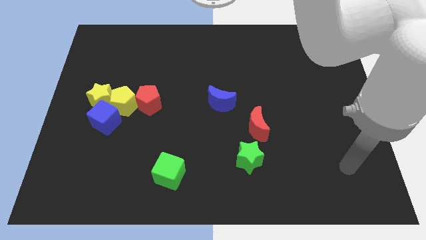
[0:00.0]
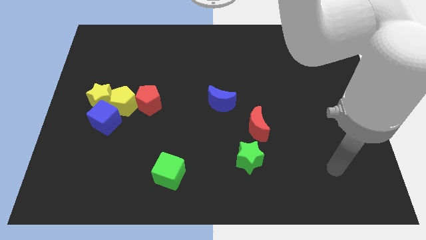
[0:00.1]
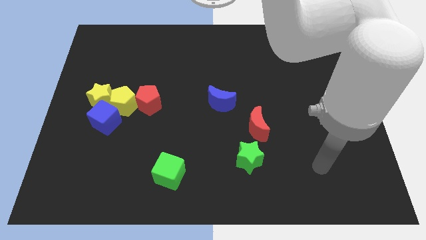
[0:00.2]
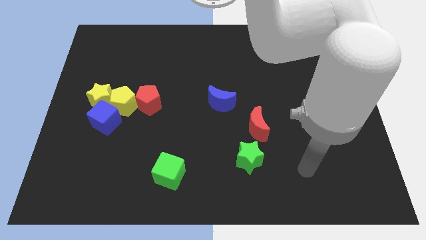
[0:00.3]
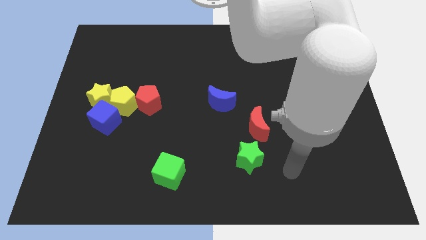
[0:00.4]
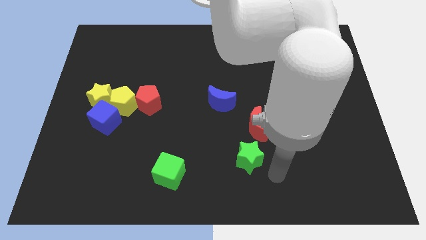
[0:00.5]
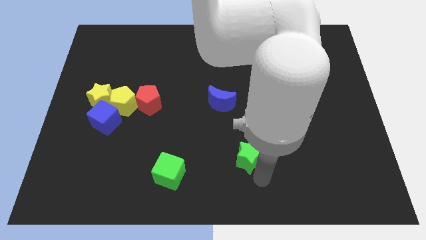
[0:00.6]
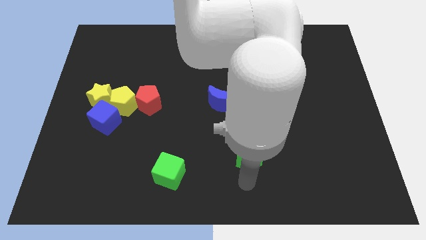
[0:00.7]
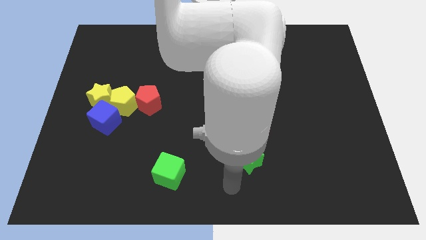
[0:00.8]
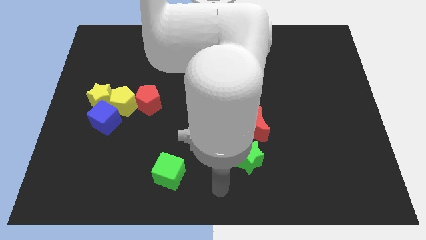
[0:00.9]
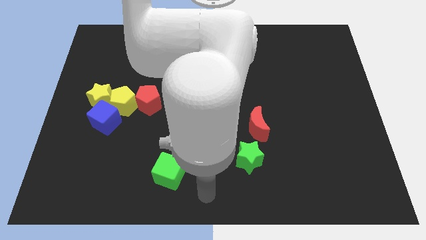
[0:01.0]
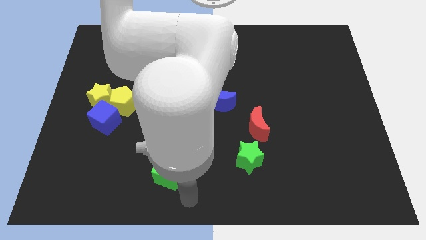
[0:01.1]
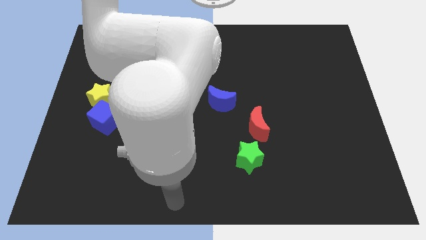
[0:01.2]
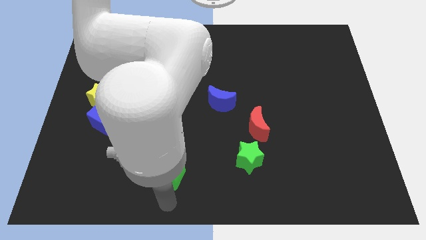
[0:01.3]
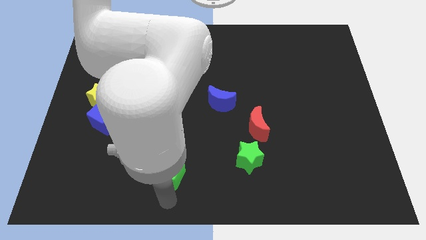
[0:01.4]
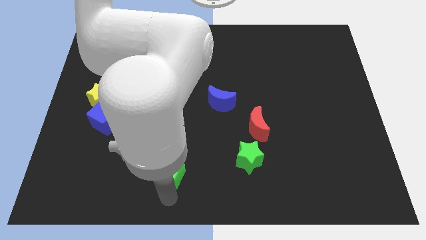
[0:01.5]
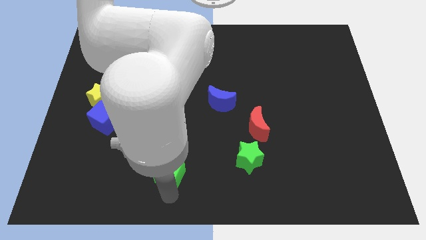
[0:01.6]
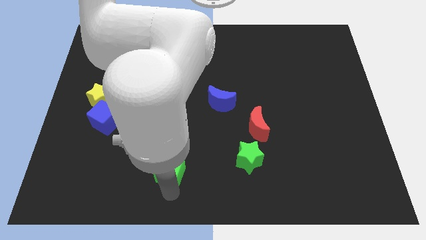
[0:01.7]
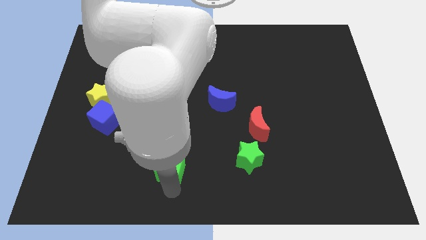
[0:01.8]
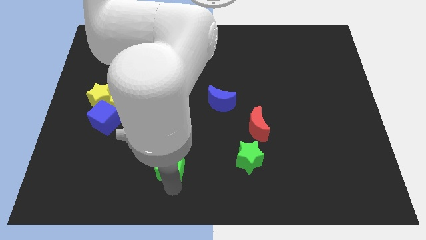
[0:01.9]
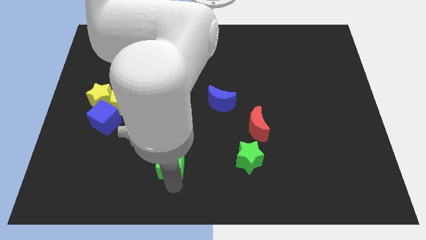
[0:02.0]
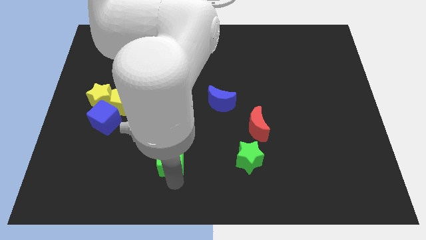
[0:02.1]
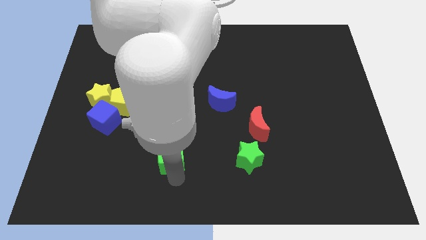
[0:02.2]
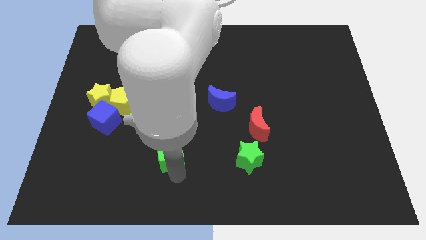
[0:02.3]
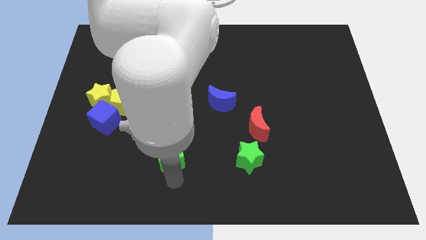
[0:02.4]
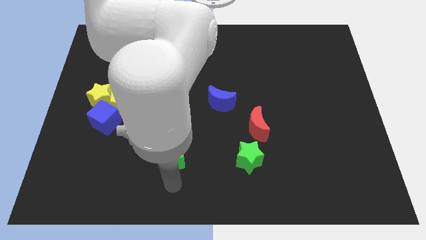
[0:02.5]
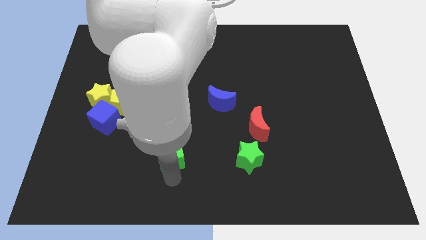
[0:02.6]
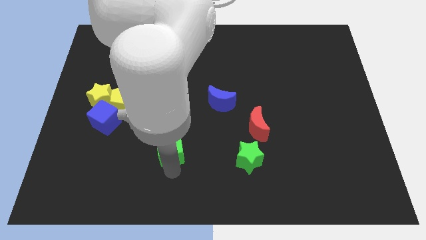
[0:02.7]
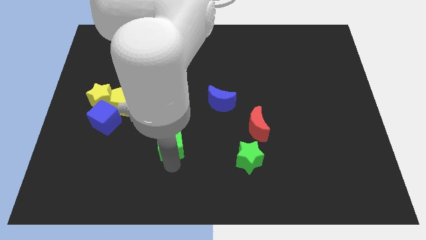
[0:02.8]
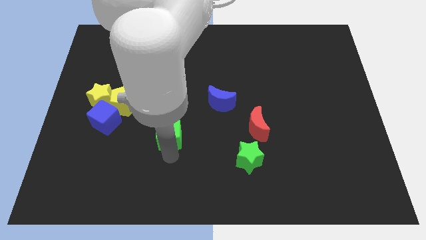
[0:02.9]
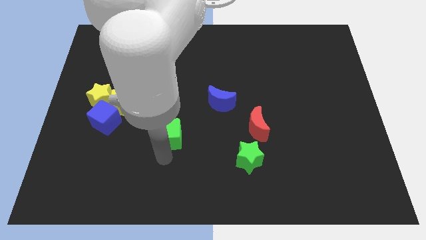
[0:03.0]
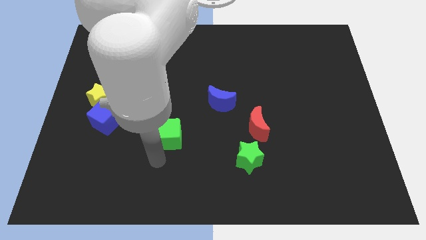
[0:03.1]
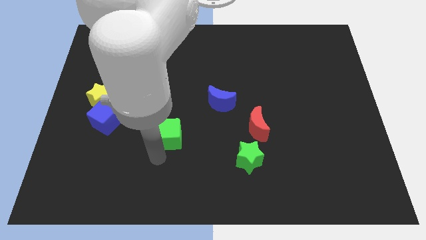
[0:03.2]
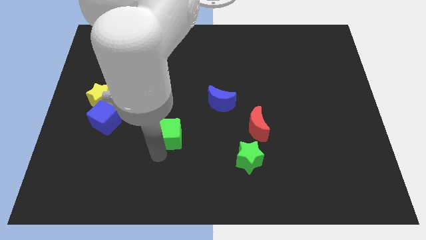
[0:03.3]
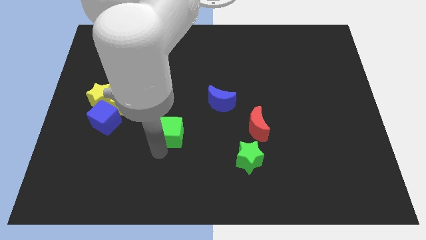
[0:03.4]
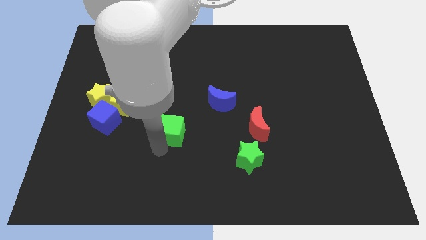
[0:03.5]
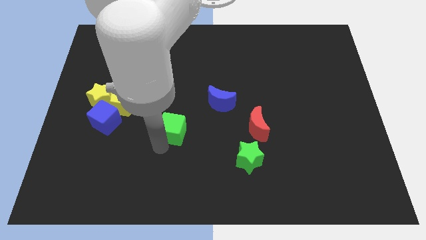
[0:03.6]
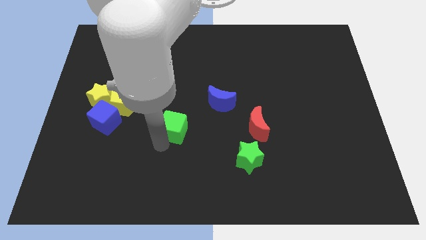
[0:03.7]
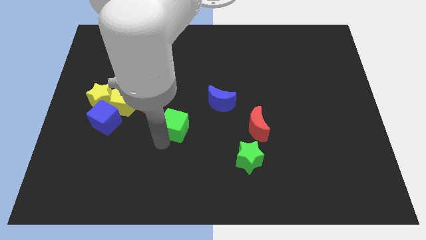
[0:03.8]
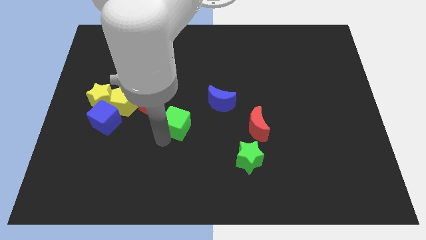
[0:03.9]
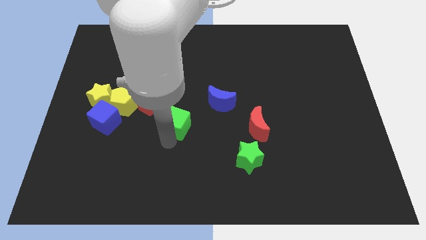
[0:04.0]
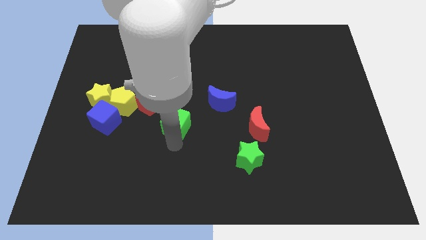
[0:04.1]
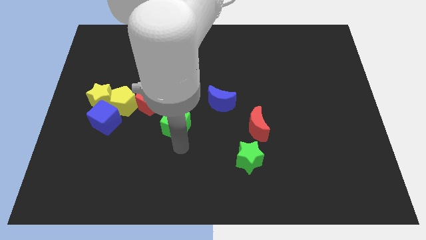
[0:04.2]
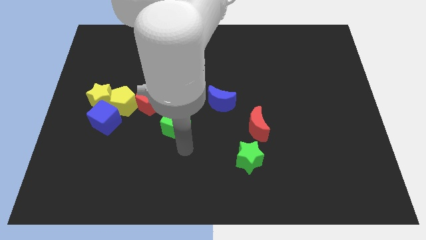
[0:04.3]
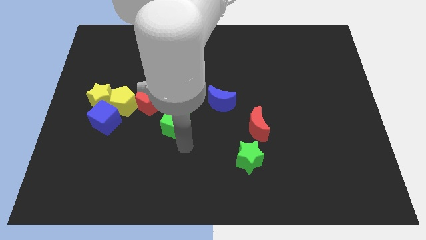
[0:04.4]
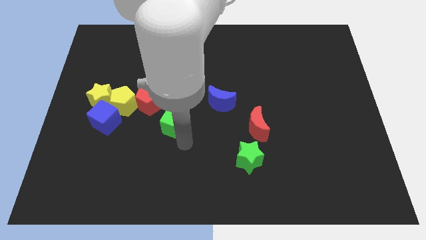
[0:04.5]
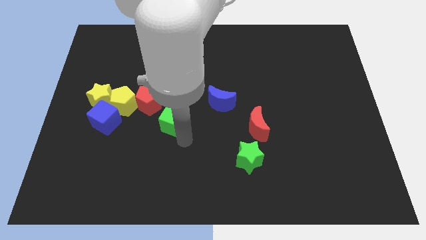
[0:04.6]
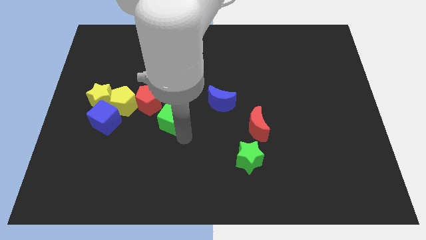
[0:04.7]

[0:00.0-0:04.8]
push the green cube right of the yellow pentagon

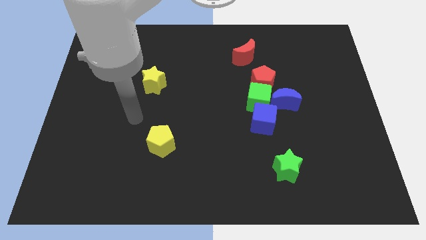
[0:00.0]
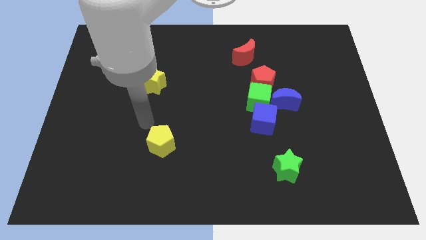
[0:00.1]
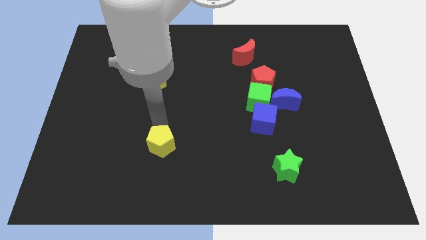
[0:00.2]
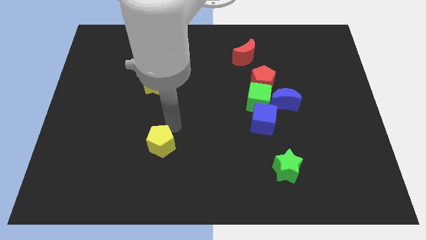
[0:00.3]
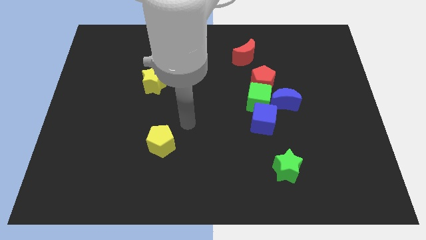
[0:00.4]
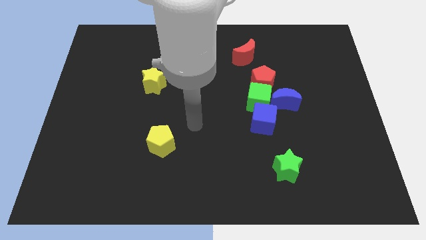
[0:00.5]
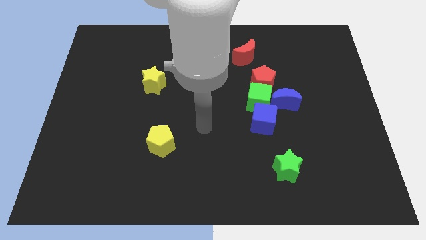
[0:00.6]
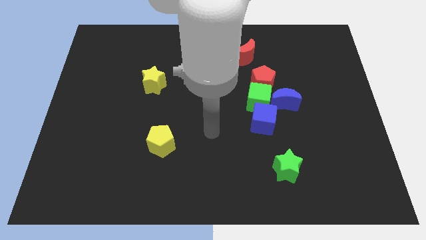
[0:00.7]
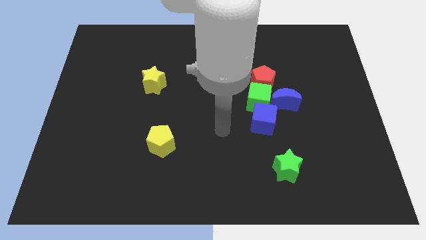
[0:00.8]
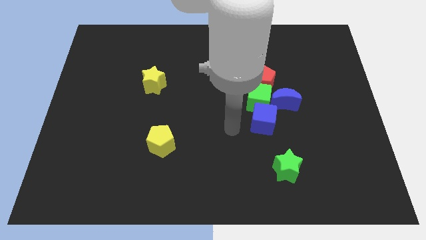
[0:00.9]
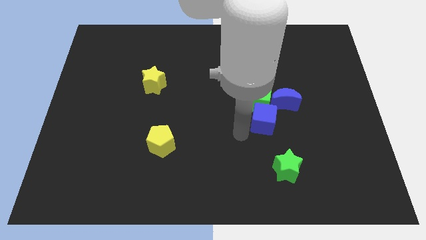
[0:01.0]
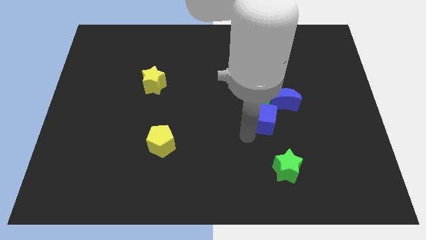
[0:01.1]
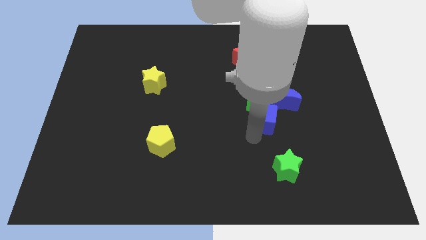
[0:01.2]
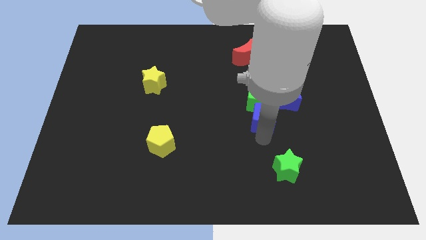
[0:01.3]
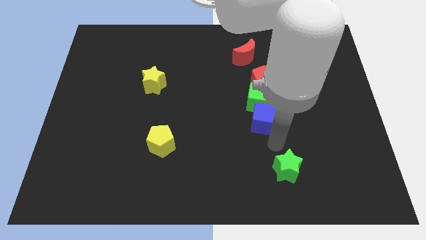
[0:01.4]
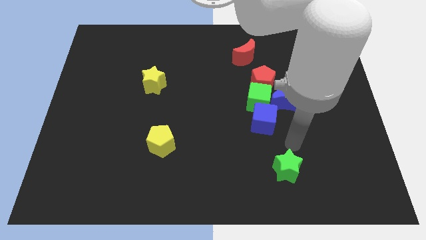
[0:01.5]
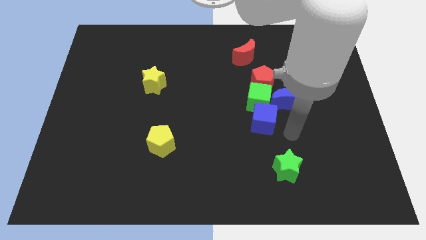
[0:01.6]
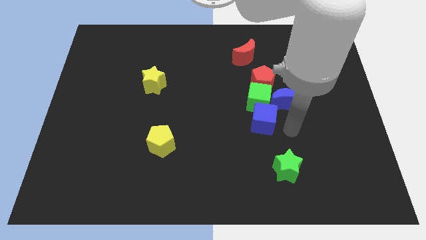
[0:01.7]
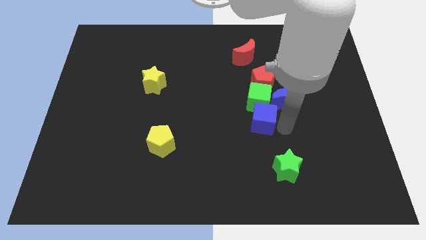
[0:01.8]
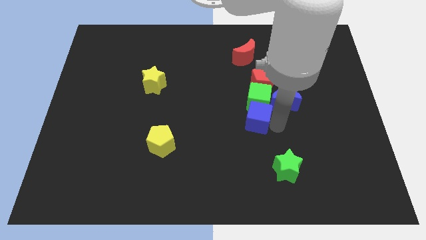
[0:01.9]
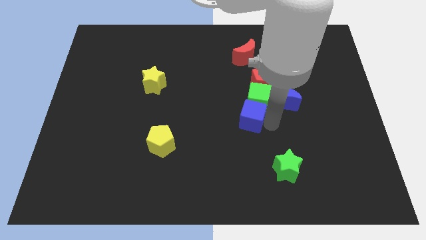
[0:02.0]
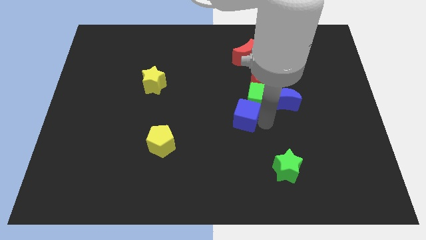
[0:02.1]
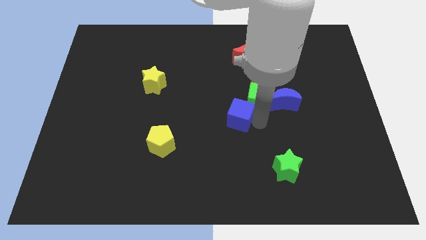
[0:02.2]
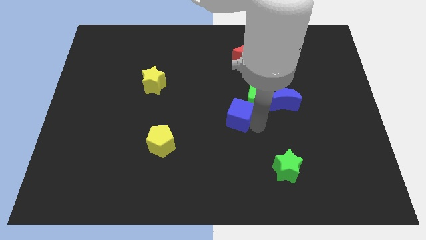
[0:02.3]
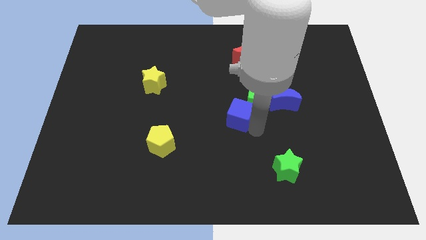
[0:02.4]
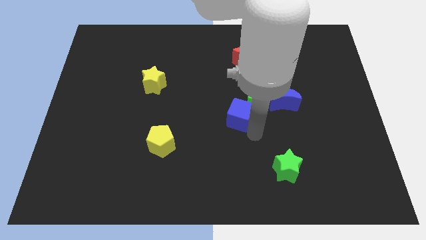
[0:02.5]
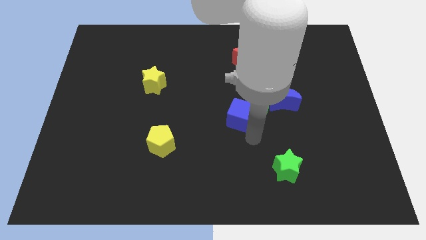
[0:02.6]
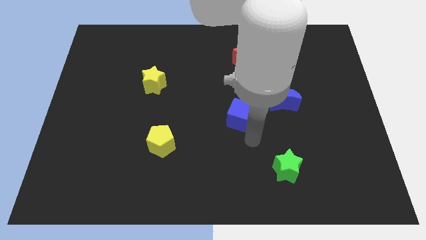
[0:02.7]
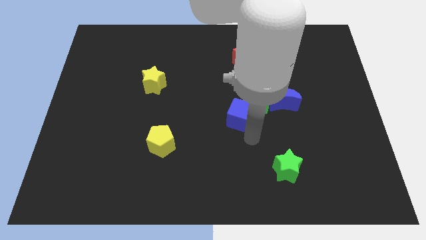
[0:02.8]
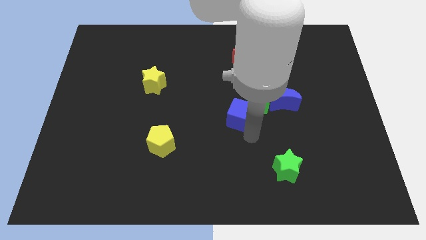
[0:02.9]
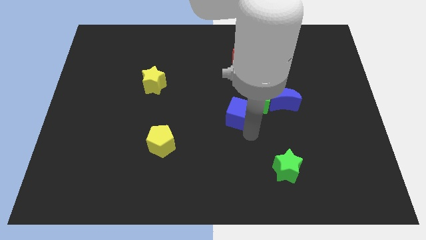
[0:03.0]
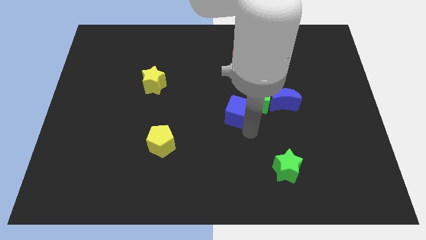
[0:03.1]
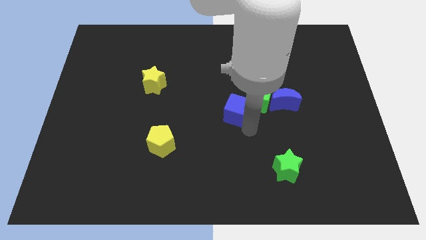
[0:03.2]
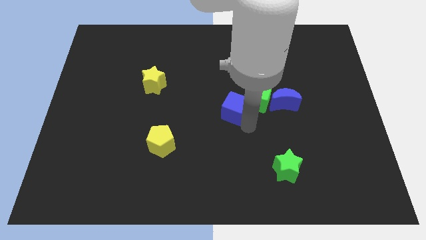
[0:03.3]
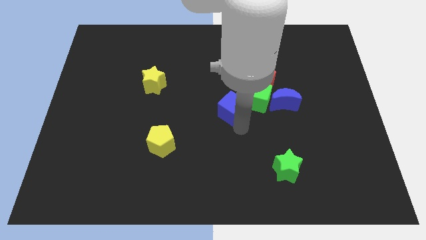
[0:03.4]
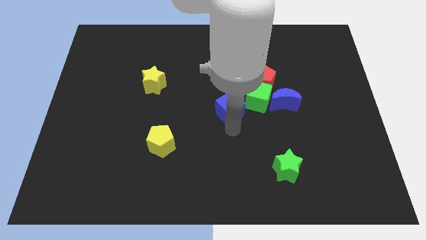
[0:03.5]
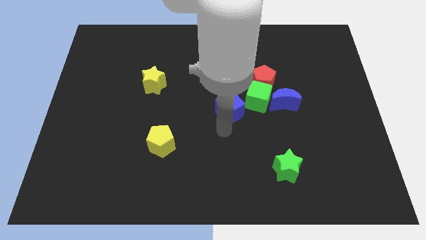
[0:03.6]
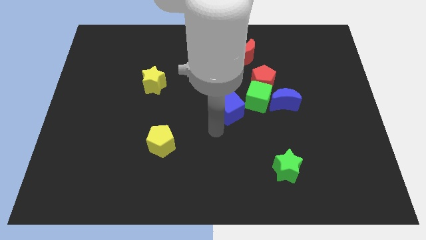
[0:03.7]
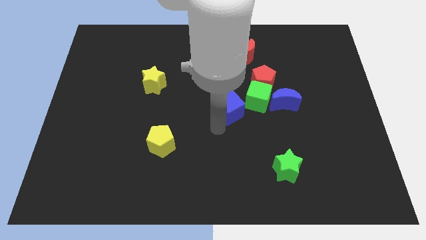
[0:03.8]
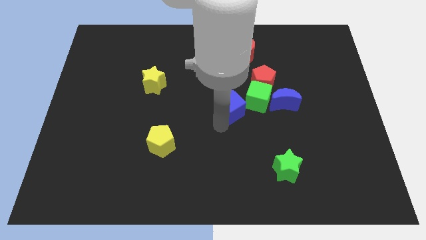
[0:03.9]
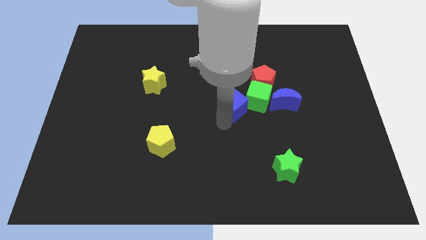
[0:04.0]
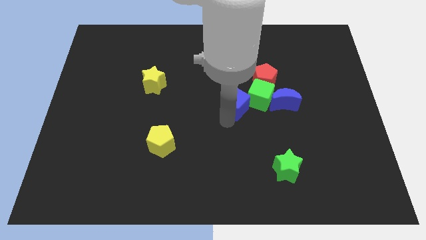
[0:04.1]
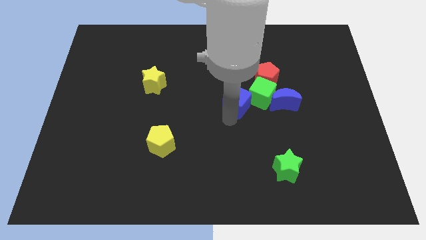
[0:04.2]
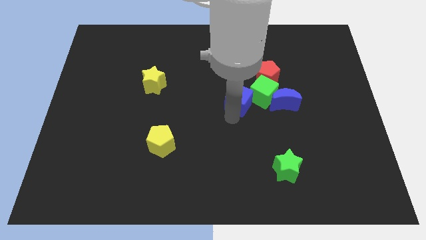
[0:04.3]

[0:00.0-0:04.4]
slide the blue cube to the bottom of the red moon
